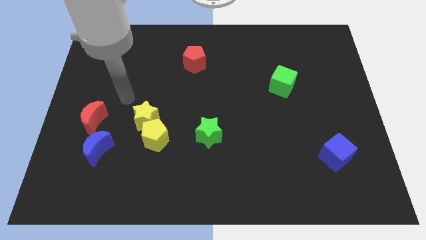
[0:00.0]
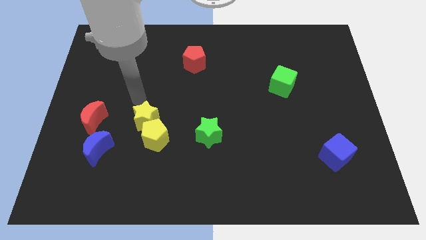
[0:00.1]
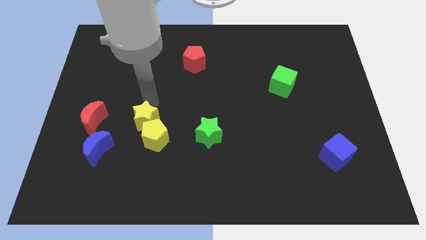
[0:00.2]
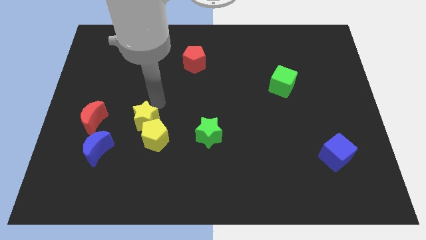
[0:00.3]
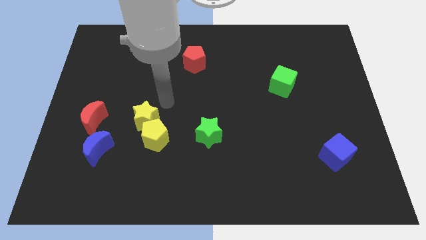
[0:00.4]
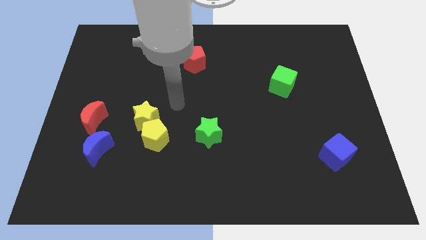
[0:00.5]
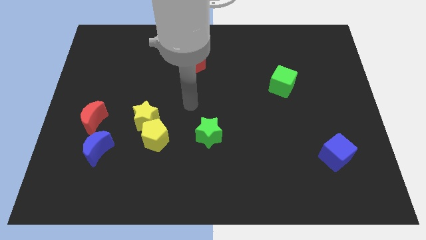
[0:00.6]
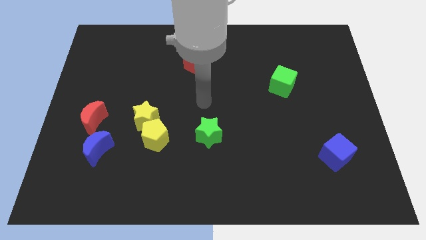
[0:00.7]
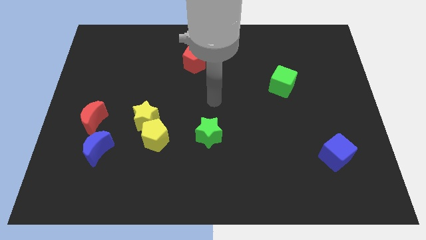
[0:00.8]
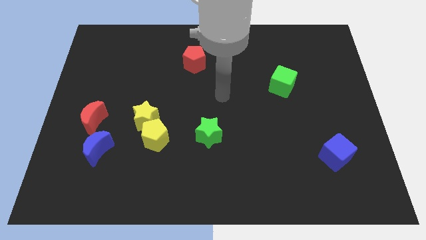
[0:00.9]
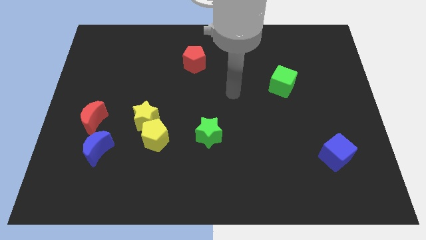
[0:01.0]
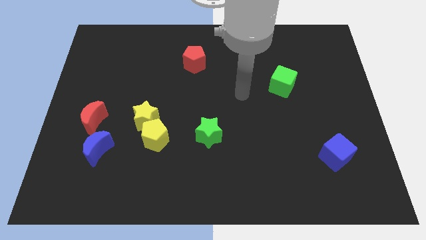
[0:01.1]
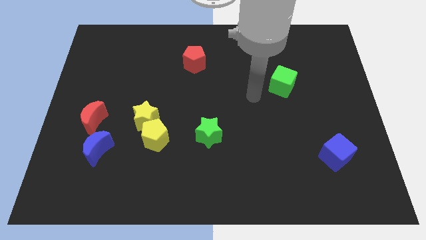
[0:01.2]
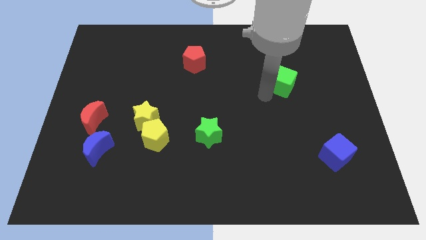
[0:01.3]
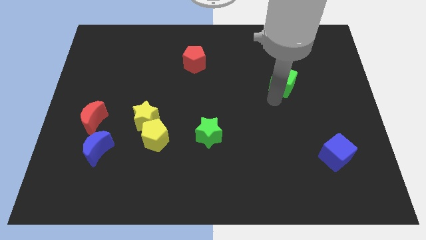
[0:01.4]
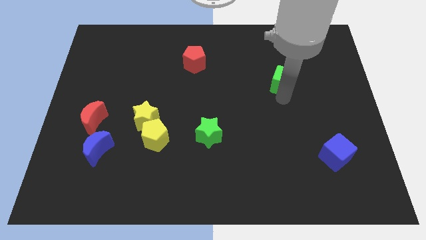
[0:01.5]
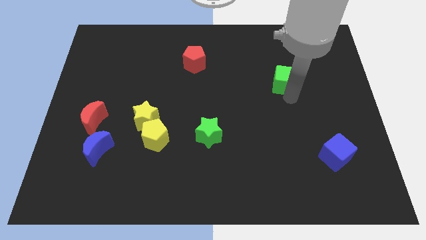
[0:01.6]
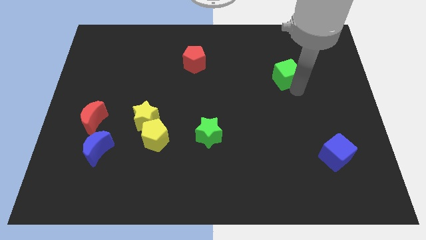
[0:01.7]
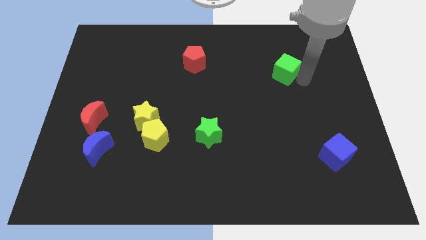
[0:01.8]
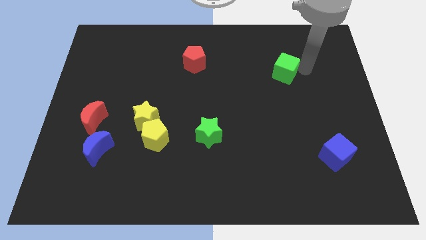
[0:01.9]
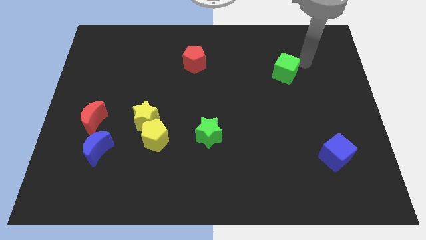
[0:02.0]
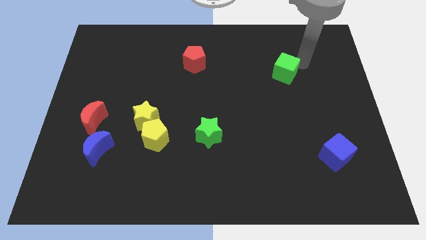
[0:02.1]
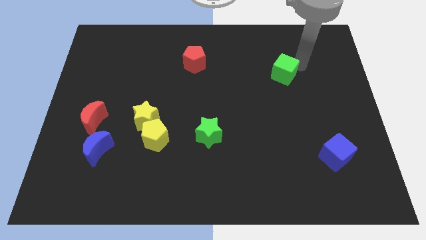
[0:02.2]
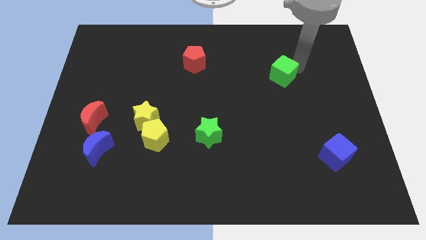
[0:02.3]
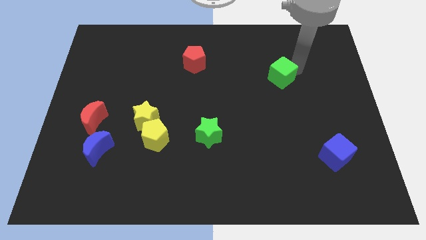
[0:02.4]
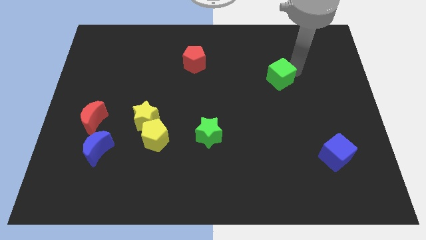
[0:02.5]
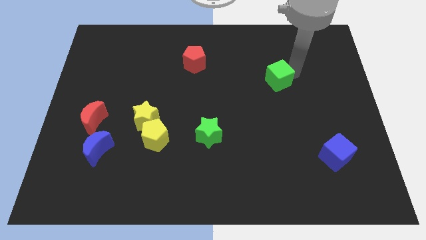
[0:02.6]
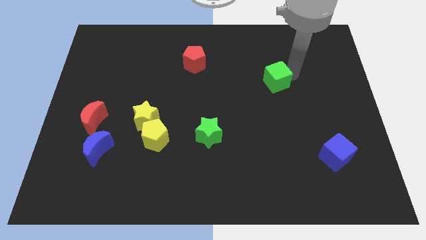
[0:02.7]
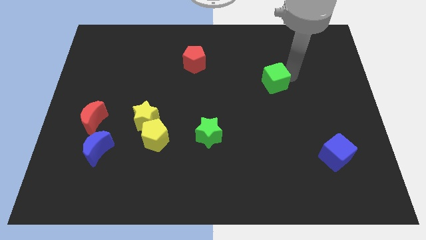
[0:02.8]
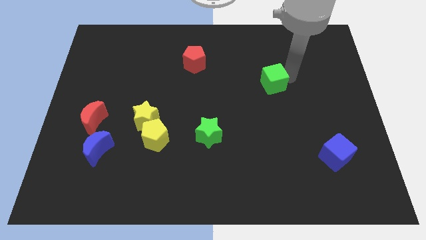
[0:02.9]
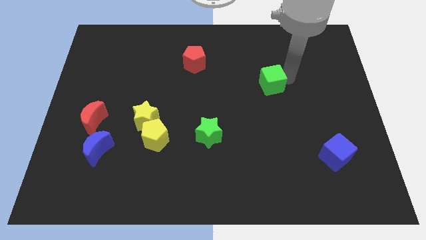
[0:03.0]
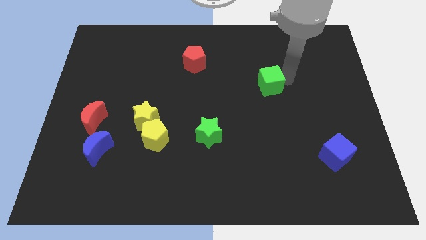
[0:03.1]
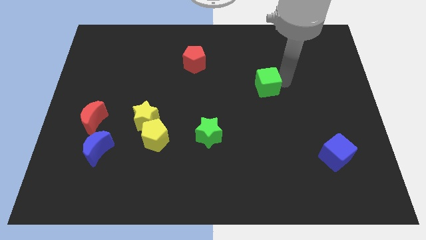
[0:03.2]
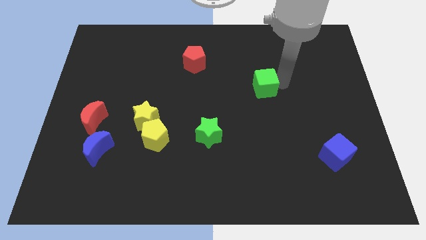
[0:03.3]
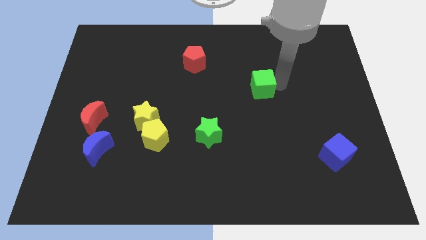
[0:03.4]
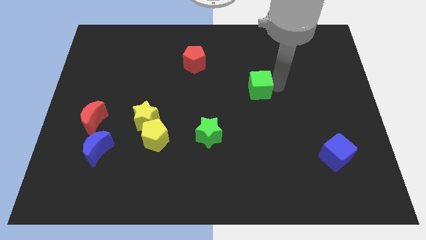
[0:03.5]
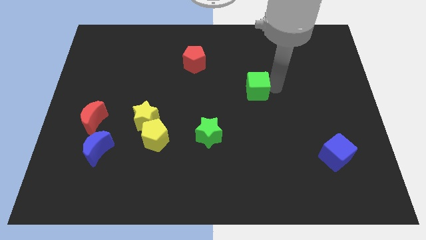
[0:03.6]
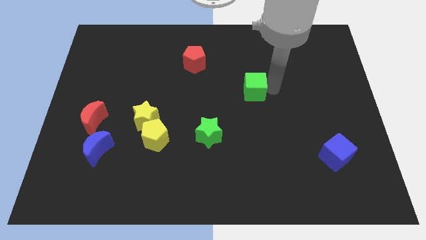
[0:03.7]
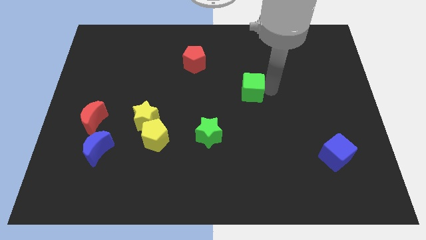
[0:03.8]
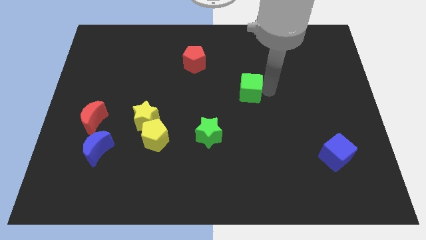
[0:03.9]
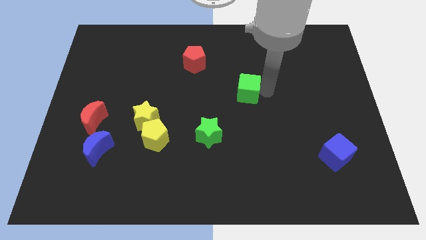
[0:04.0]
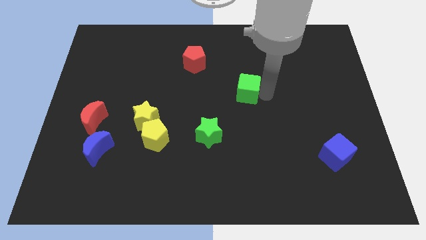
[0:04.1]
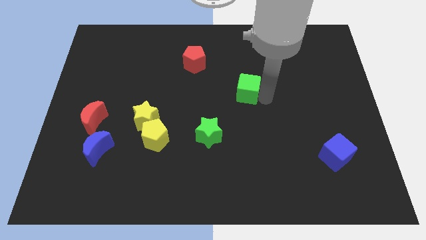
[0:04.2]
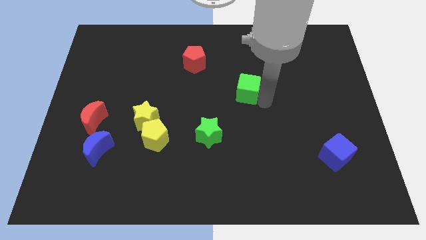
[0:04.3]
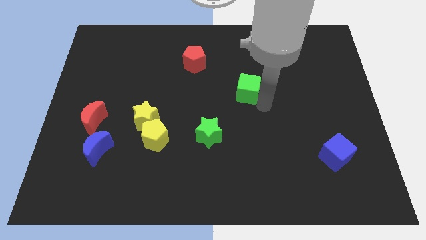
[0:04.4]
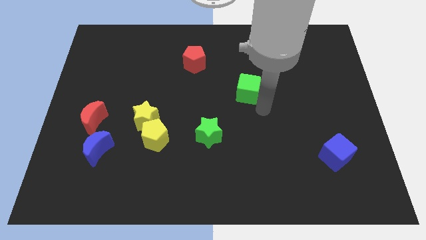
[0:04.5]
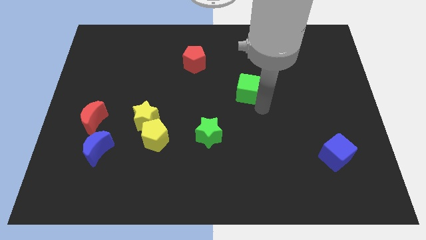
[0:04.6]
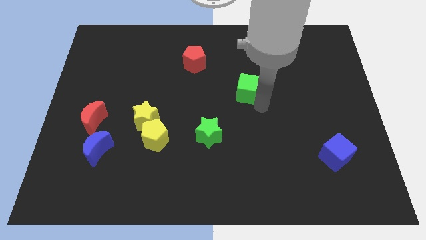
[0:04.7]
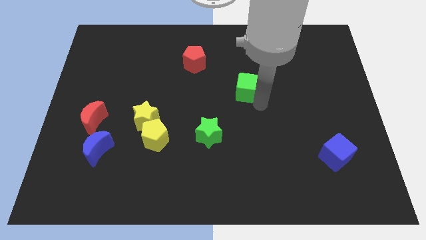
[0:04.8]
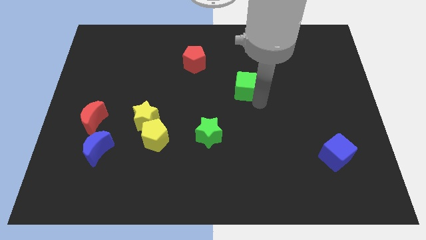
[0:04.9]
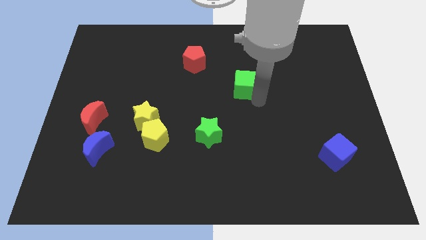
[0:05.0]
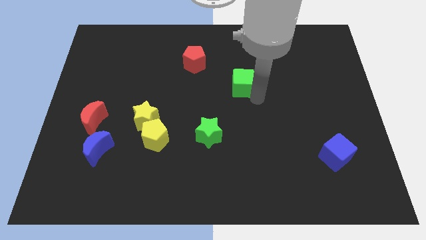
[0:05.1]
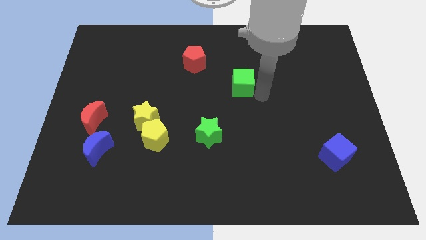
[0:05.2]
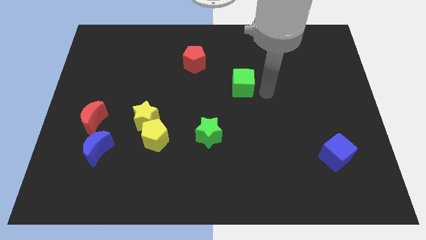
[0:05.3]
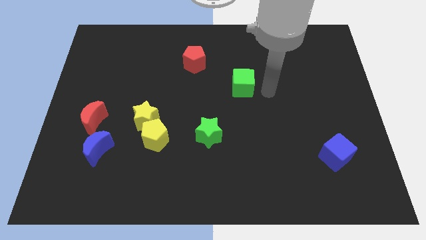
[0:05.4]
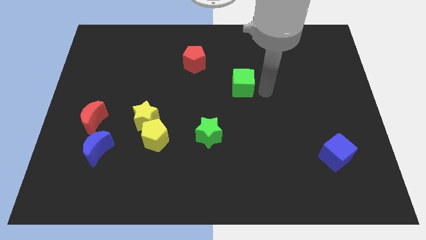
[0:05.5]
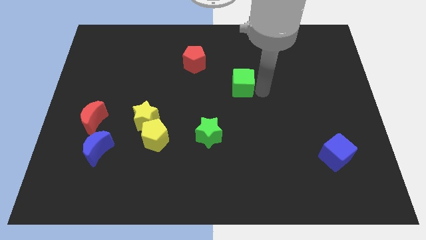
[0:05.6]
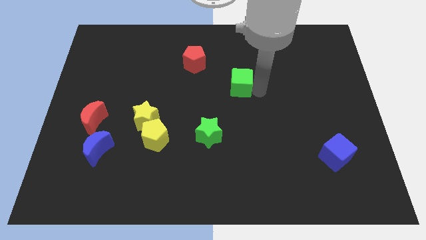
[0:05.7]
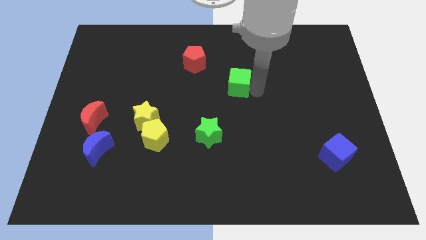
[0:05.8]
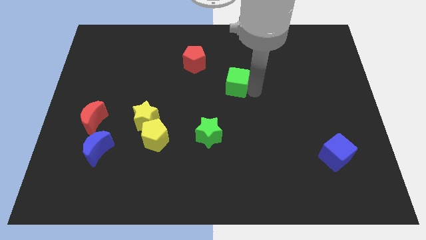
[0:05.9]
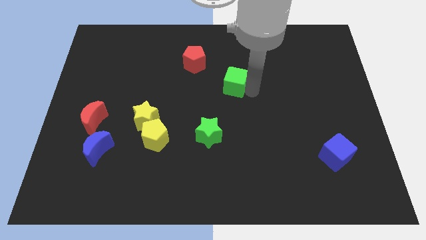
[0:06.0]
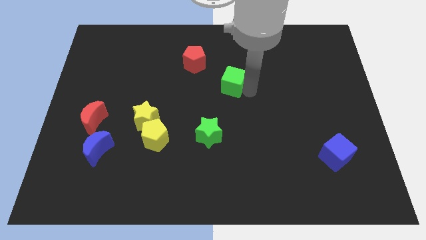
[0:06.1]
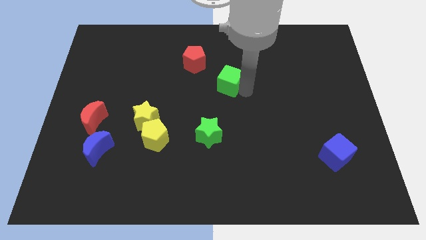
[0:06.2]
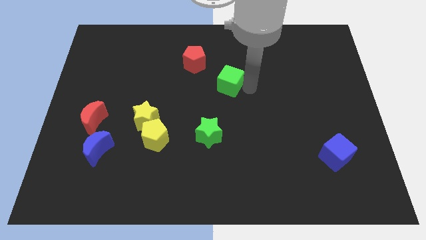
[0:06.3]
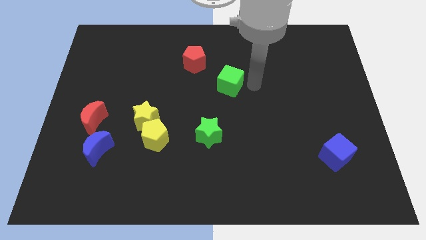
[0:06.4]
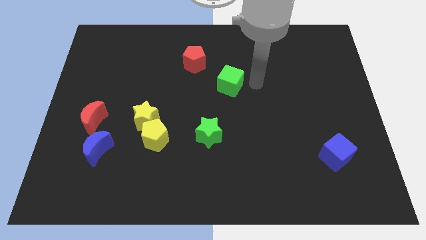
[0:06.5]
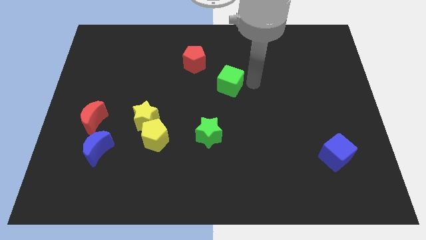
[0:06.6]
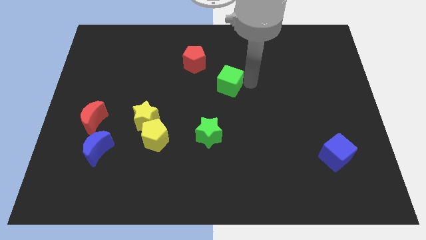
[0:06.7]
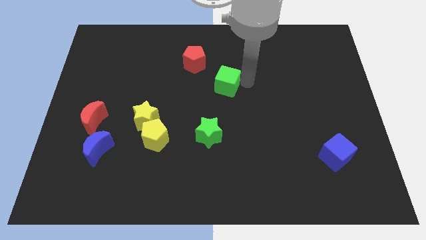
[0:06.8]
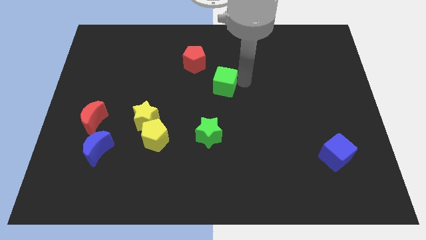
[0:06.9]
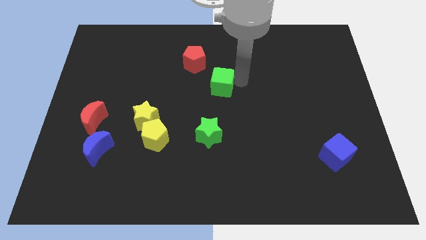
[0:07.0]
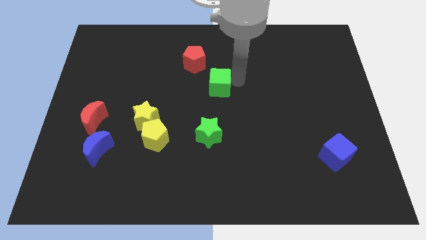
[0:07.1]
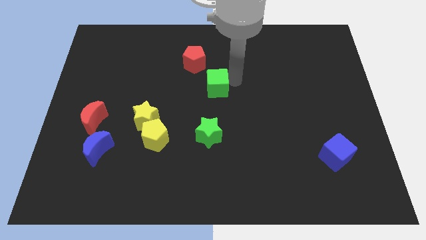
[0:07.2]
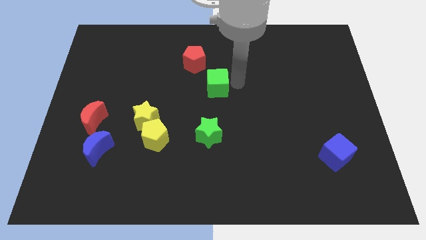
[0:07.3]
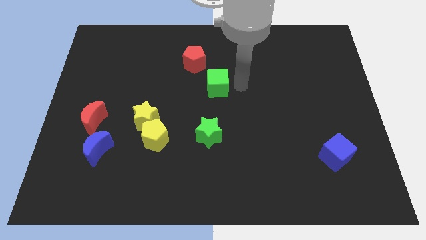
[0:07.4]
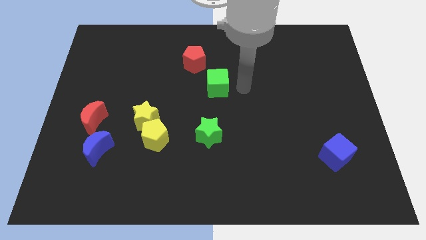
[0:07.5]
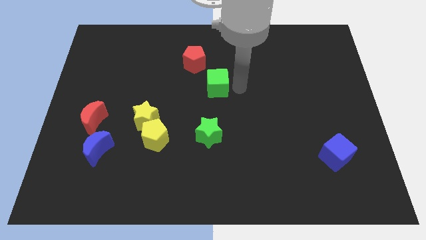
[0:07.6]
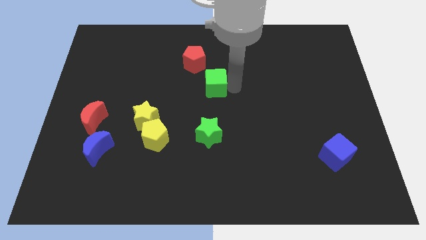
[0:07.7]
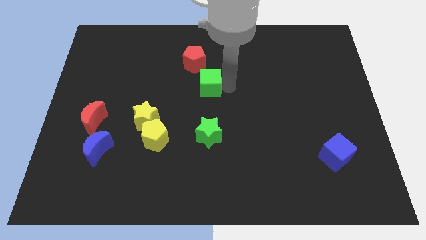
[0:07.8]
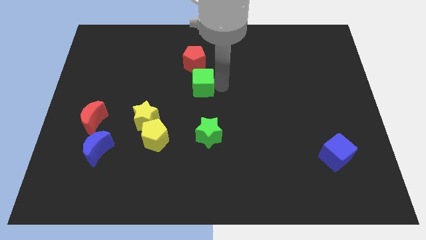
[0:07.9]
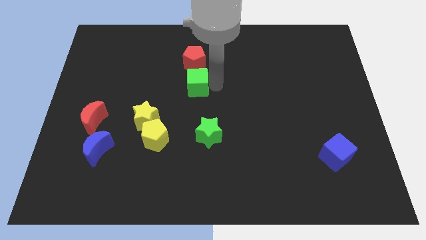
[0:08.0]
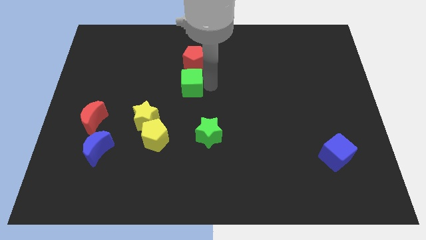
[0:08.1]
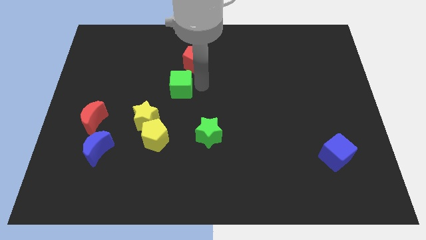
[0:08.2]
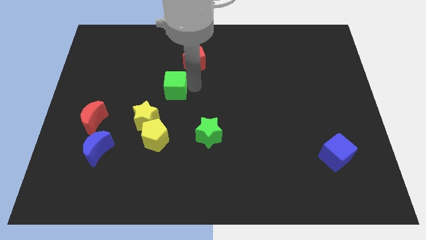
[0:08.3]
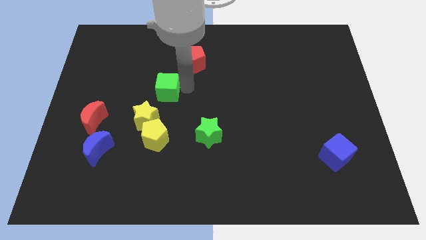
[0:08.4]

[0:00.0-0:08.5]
put the green cube to the top of the yellow star

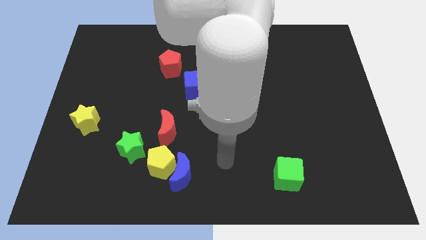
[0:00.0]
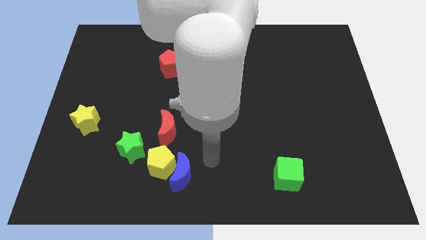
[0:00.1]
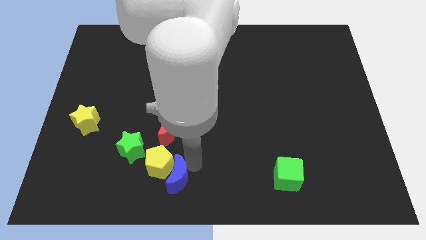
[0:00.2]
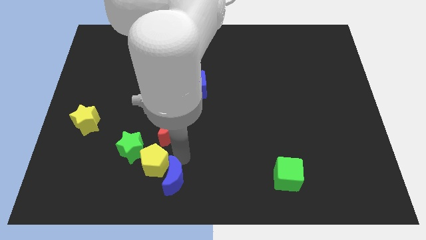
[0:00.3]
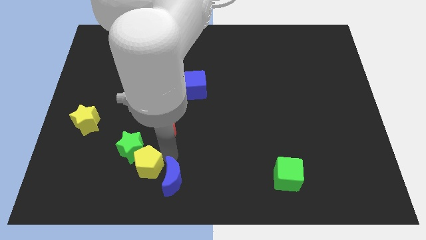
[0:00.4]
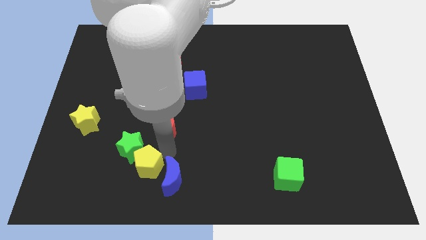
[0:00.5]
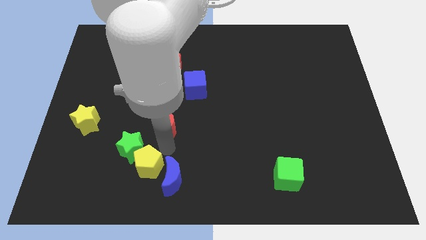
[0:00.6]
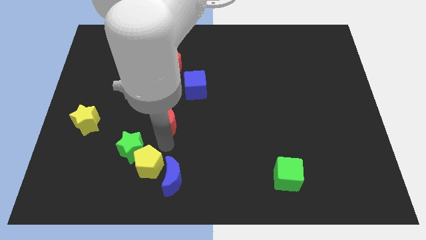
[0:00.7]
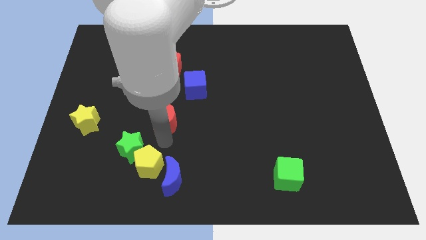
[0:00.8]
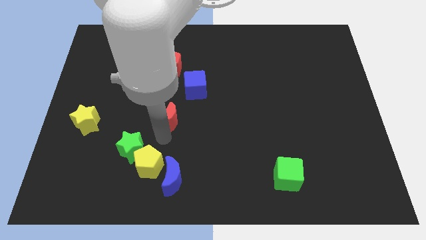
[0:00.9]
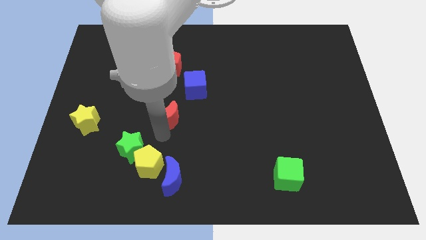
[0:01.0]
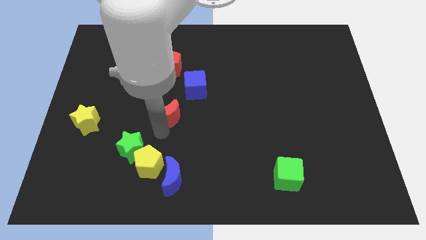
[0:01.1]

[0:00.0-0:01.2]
slide the red moon to the bottom of the red pentagon
